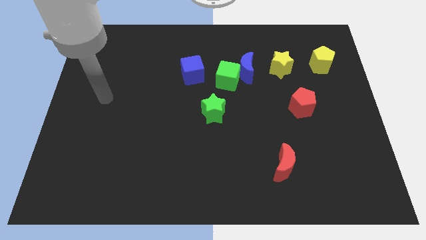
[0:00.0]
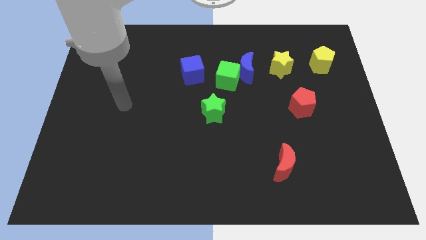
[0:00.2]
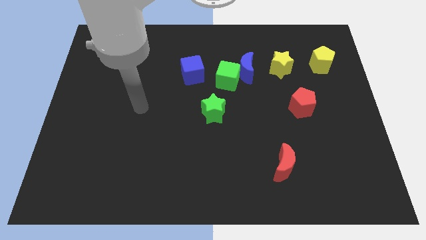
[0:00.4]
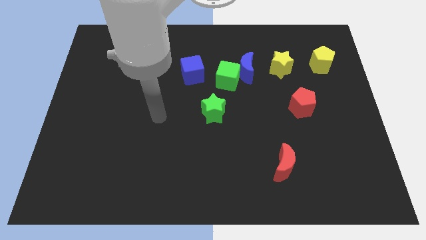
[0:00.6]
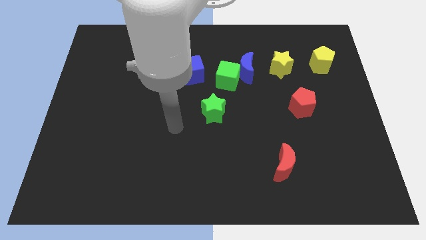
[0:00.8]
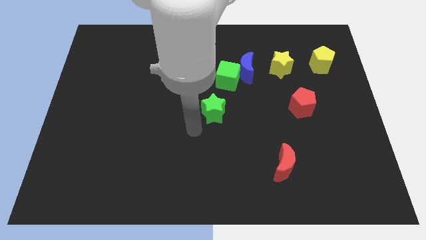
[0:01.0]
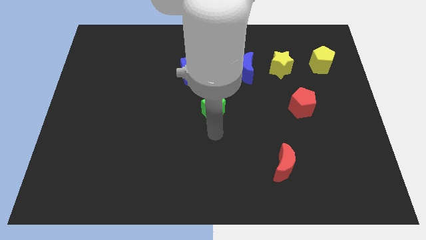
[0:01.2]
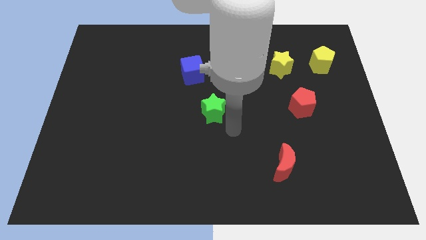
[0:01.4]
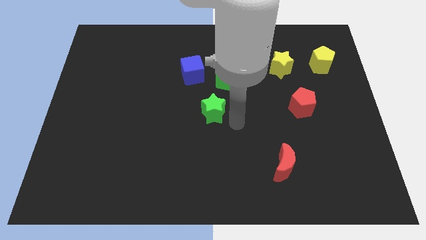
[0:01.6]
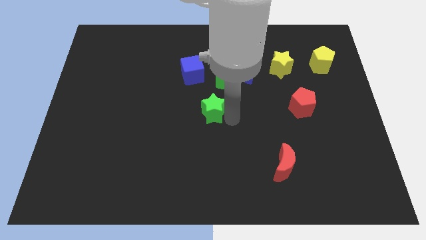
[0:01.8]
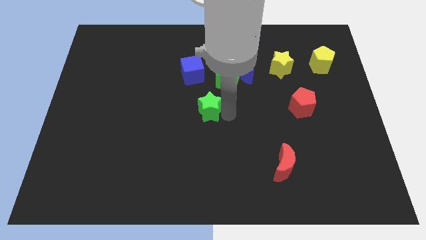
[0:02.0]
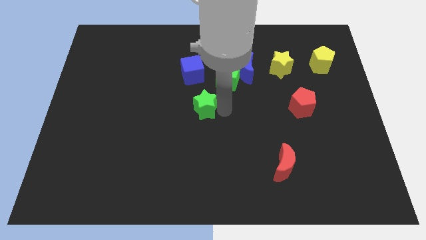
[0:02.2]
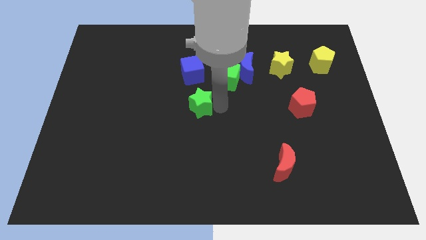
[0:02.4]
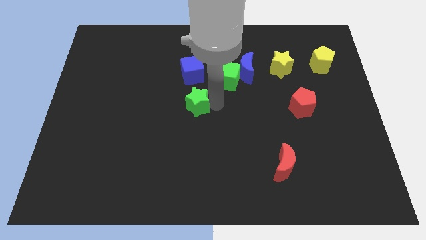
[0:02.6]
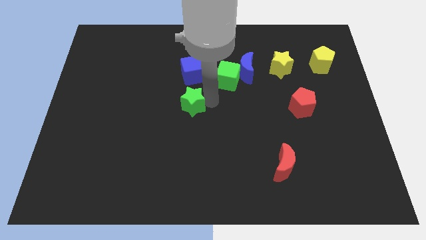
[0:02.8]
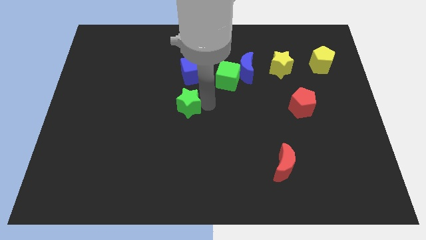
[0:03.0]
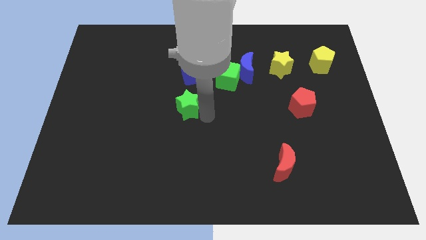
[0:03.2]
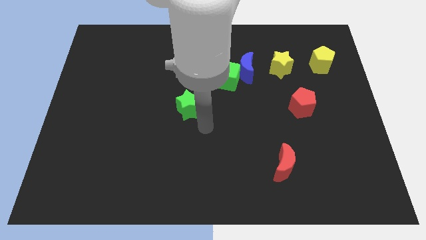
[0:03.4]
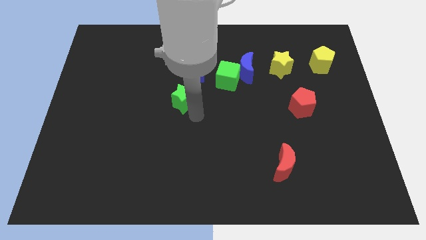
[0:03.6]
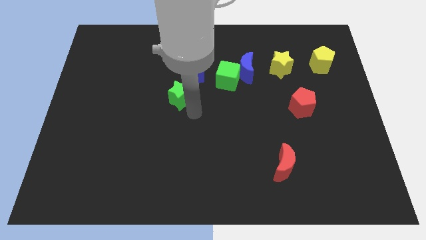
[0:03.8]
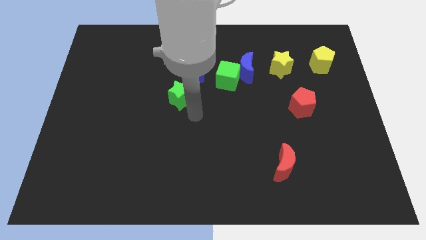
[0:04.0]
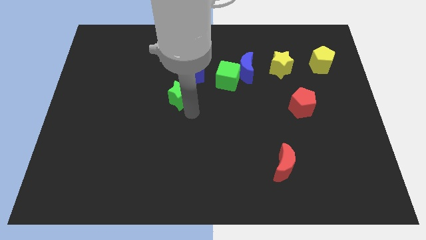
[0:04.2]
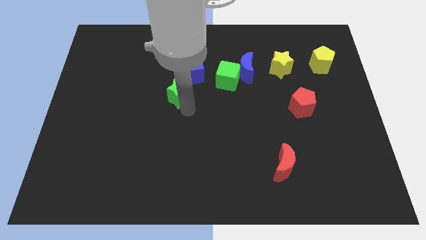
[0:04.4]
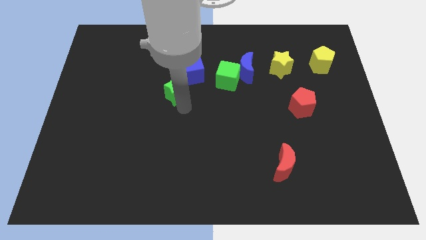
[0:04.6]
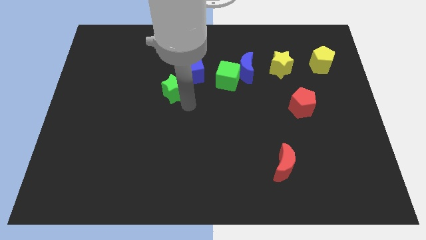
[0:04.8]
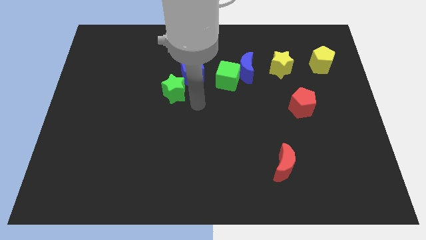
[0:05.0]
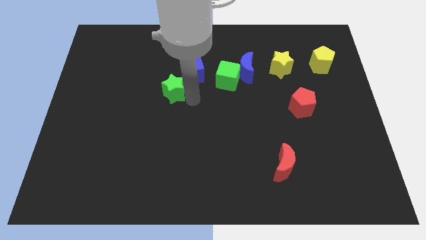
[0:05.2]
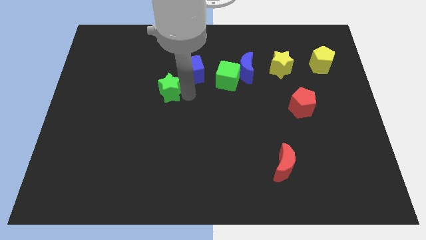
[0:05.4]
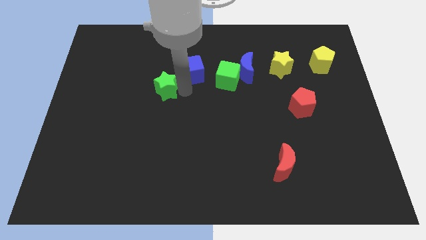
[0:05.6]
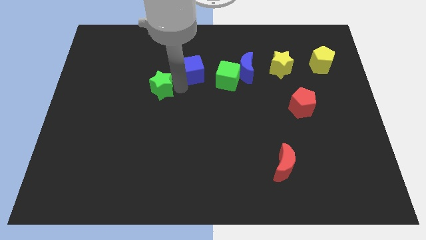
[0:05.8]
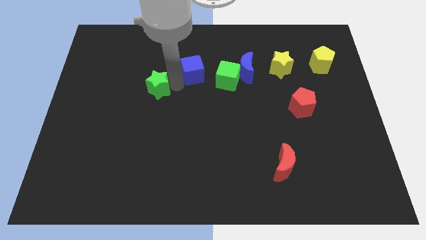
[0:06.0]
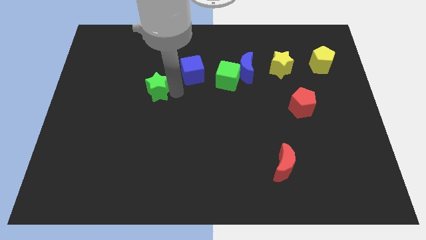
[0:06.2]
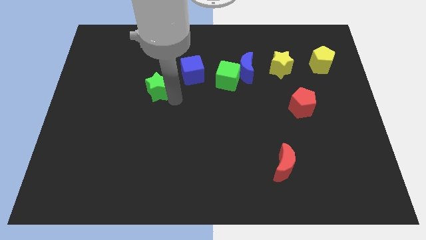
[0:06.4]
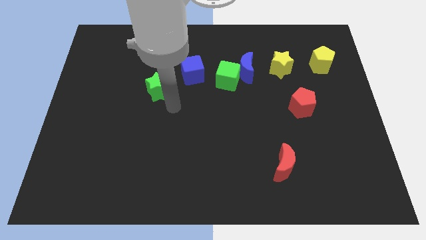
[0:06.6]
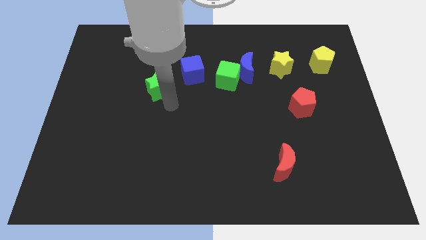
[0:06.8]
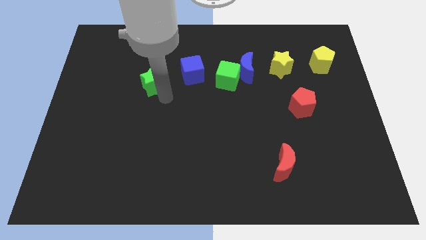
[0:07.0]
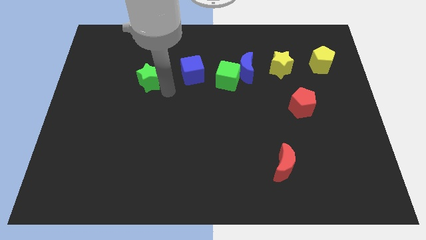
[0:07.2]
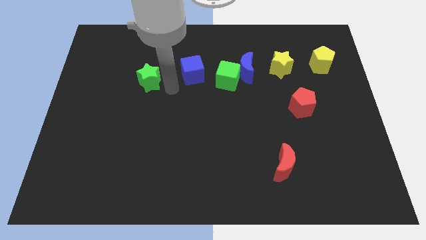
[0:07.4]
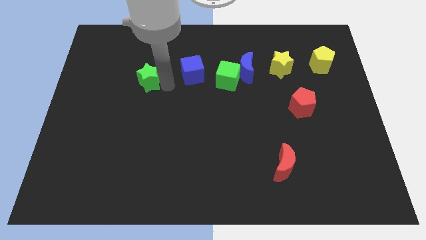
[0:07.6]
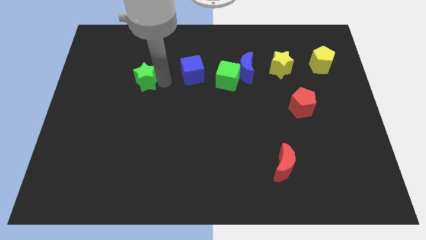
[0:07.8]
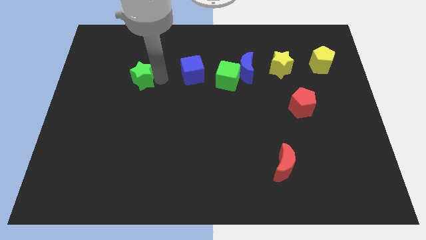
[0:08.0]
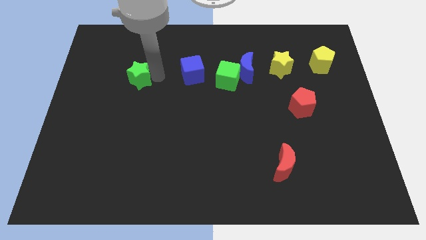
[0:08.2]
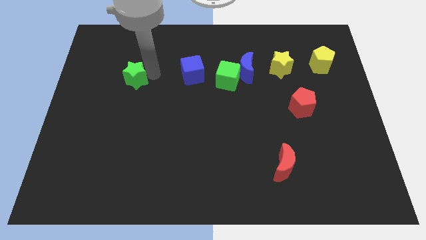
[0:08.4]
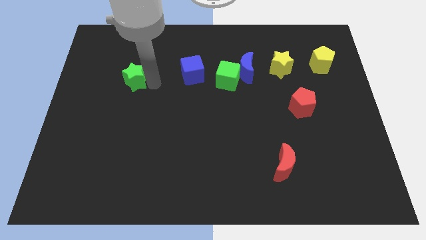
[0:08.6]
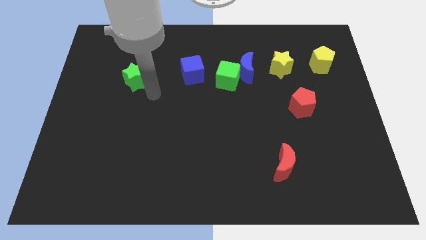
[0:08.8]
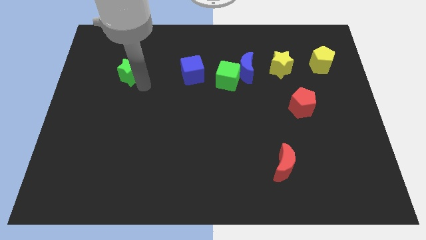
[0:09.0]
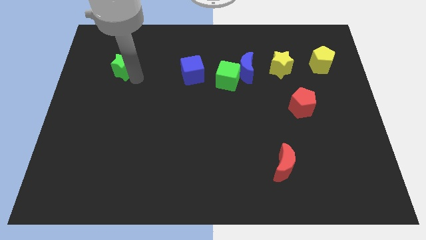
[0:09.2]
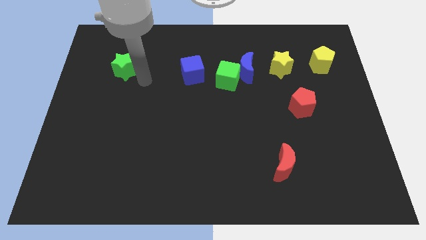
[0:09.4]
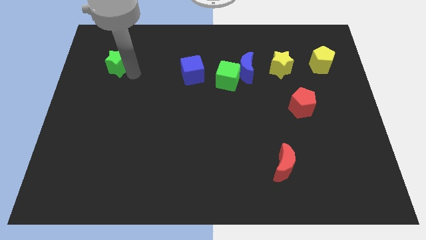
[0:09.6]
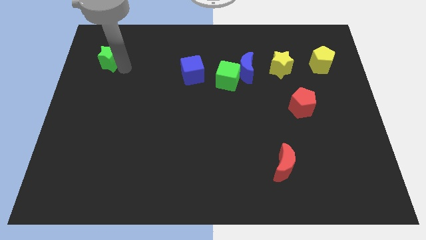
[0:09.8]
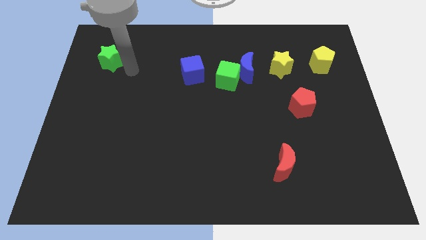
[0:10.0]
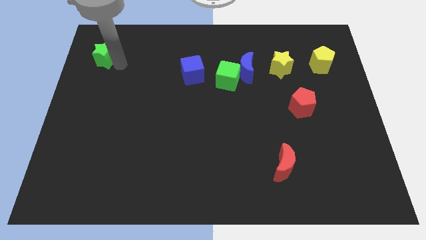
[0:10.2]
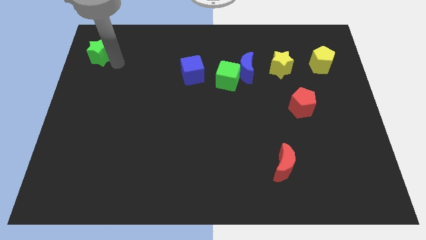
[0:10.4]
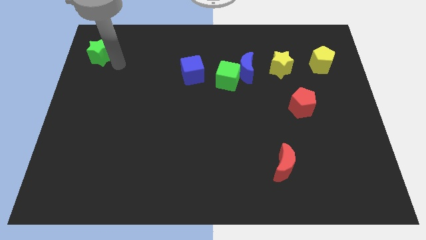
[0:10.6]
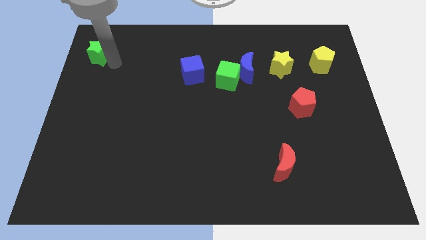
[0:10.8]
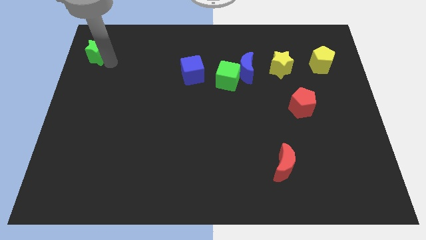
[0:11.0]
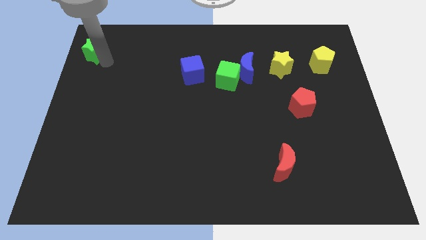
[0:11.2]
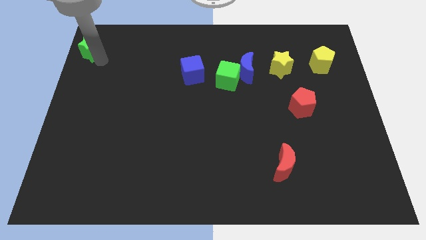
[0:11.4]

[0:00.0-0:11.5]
push the green star to the top left corner
